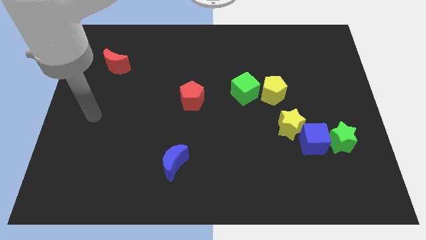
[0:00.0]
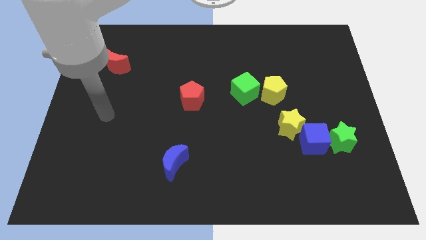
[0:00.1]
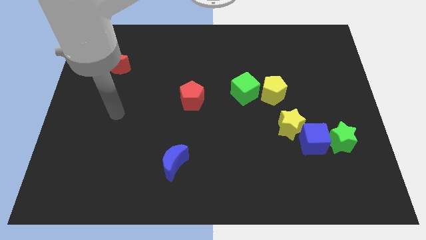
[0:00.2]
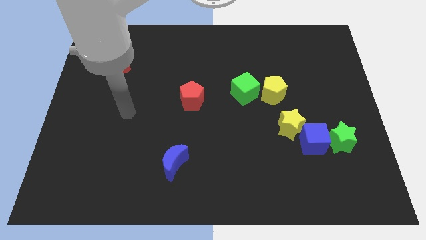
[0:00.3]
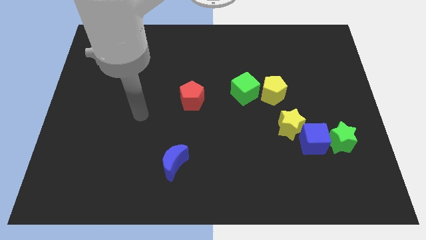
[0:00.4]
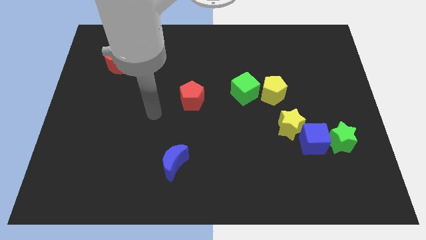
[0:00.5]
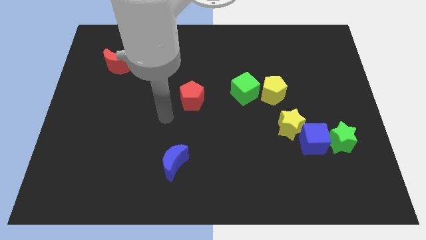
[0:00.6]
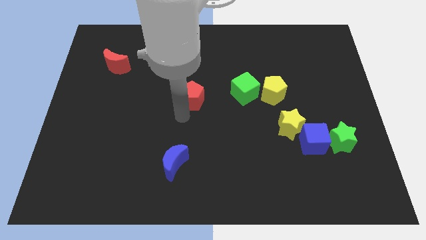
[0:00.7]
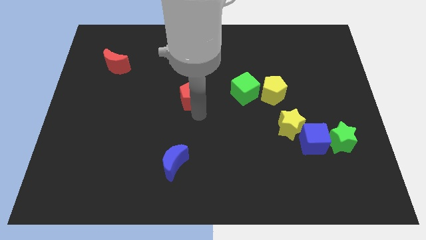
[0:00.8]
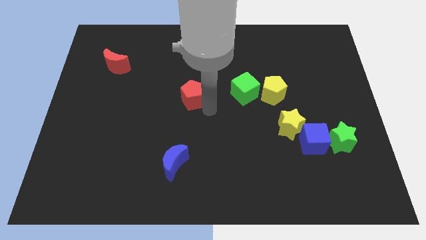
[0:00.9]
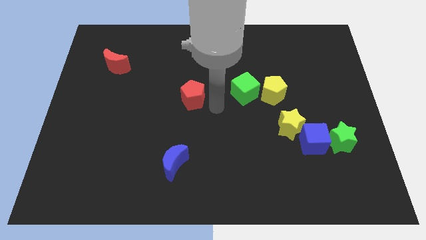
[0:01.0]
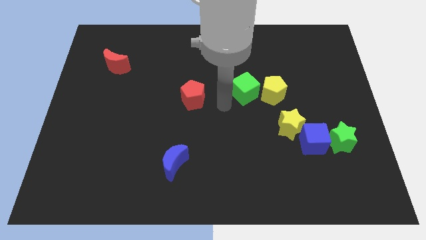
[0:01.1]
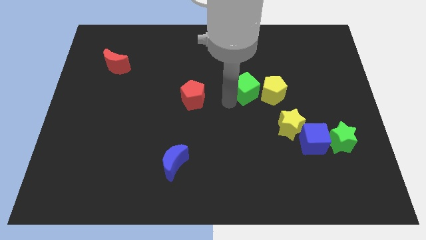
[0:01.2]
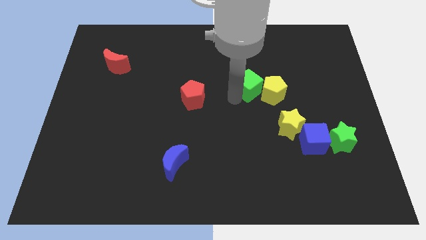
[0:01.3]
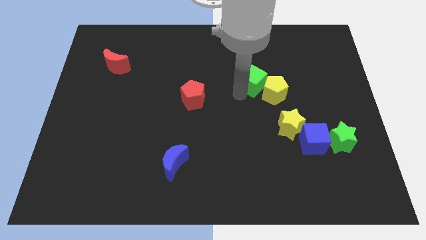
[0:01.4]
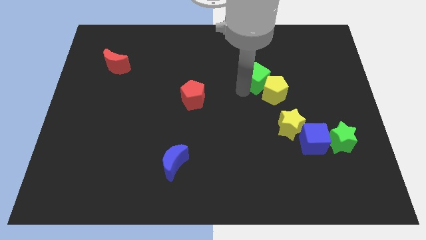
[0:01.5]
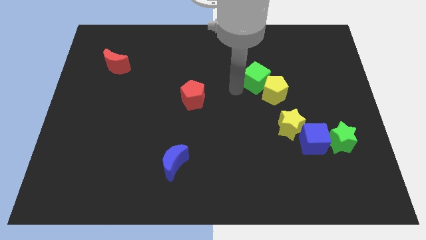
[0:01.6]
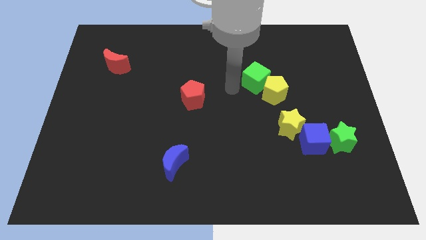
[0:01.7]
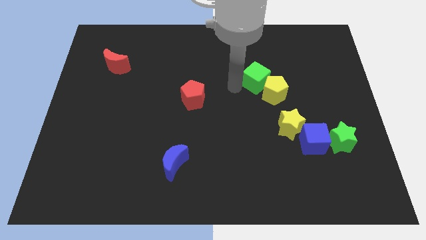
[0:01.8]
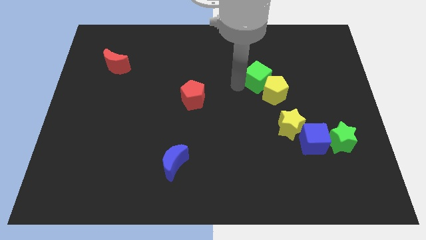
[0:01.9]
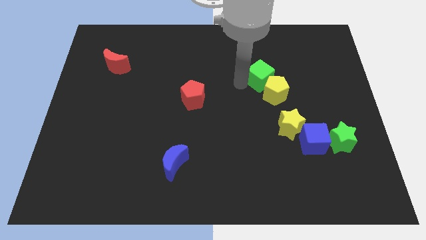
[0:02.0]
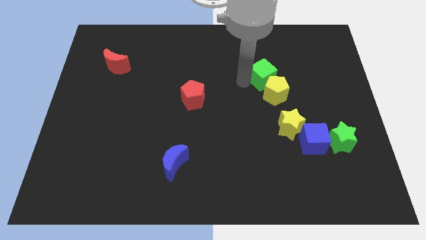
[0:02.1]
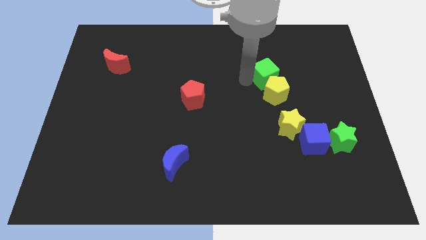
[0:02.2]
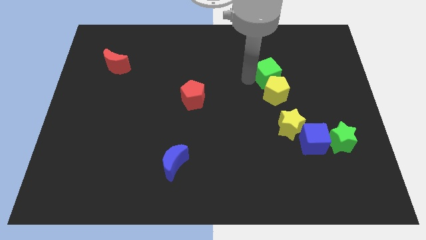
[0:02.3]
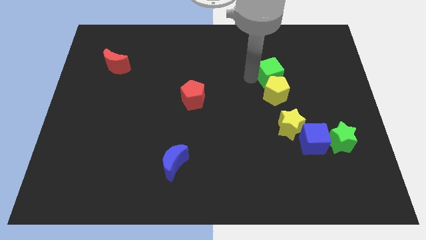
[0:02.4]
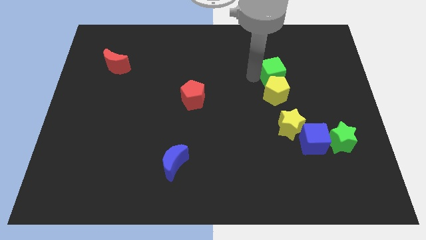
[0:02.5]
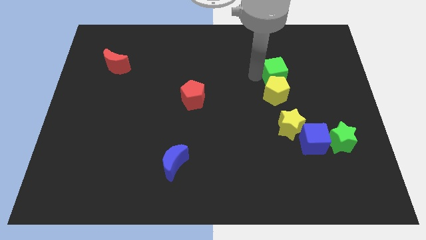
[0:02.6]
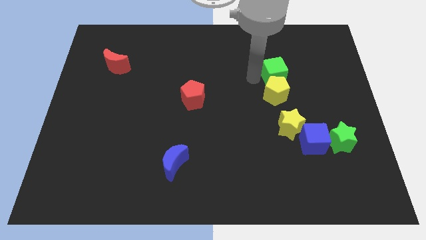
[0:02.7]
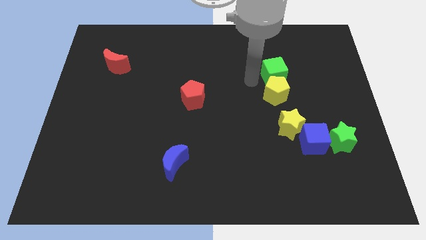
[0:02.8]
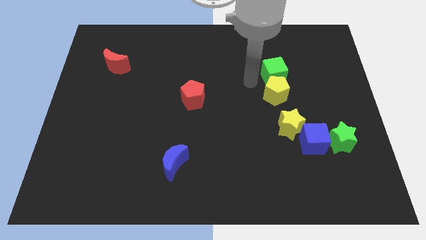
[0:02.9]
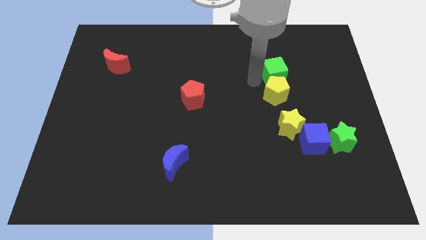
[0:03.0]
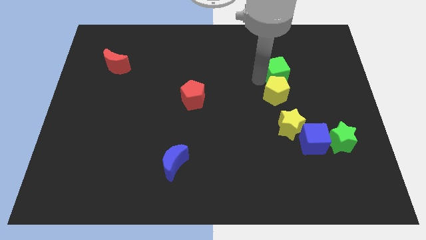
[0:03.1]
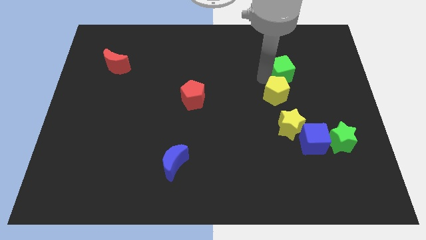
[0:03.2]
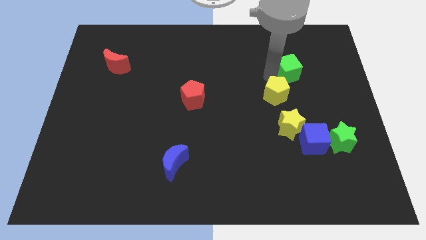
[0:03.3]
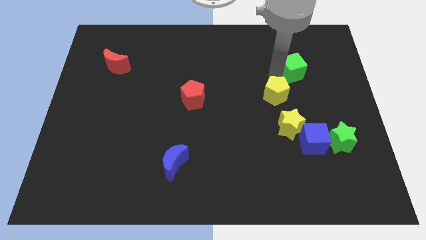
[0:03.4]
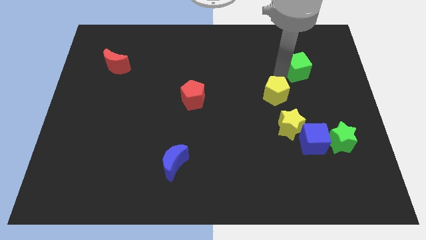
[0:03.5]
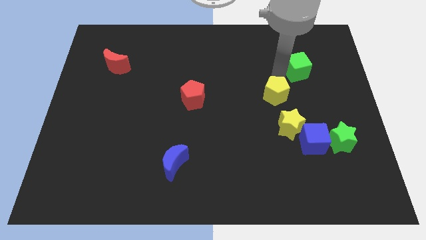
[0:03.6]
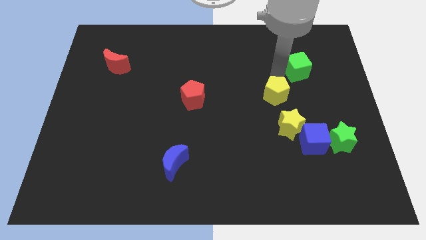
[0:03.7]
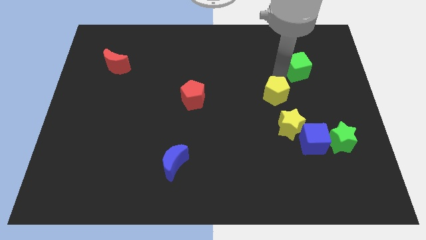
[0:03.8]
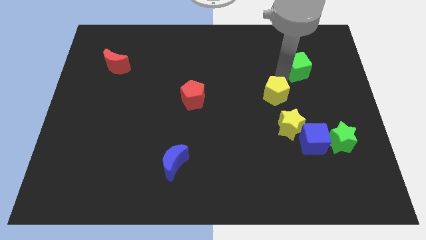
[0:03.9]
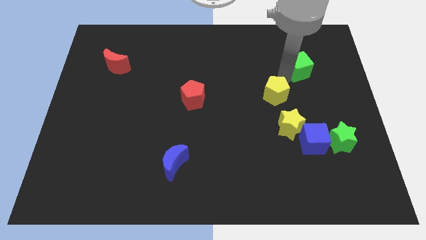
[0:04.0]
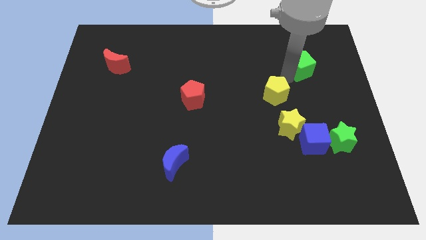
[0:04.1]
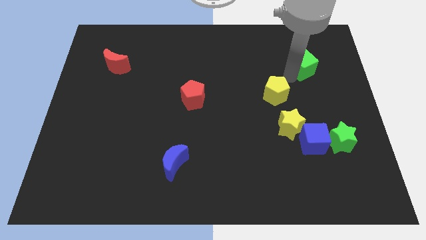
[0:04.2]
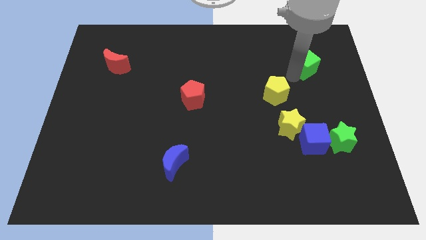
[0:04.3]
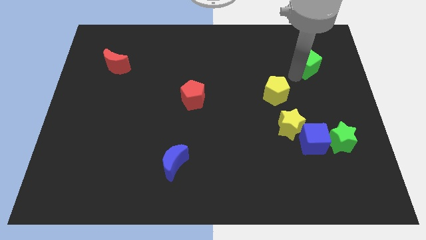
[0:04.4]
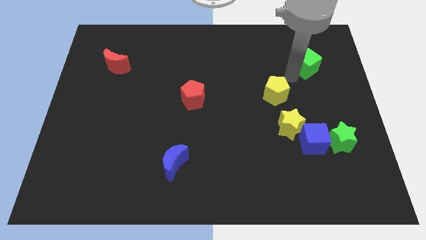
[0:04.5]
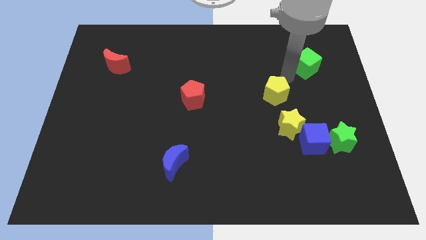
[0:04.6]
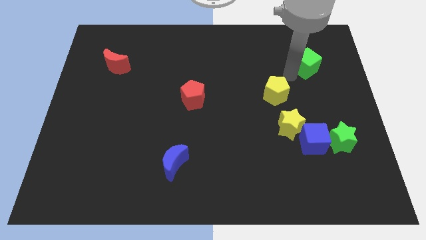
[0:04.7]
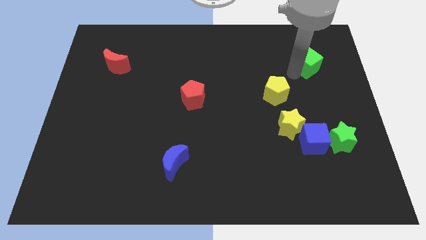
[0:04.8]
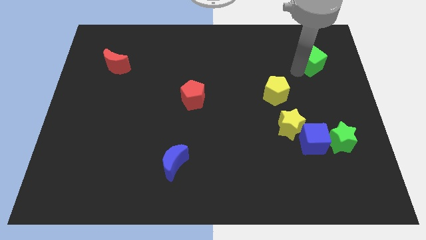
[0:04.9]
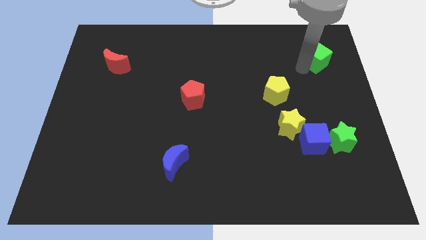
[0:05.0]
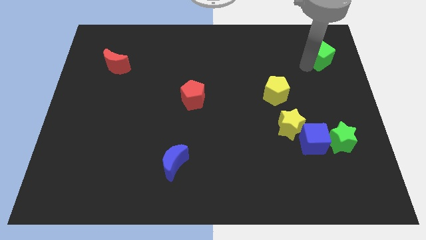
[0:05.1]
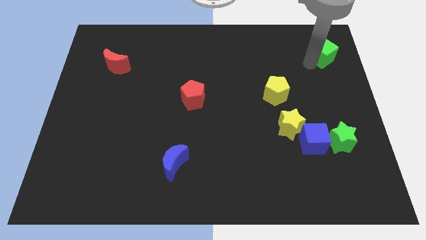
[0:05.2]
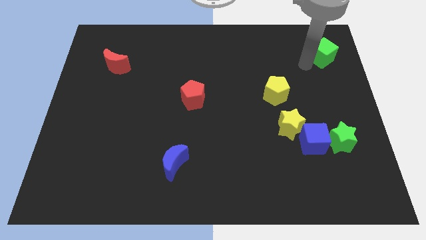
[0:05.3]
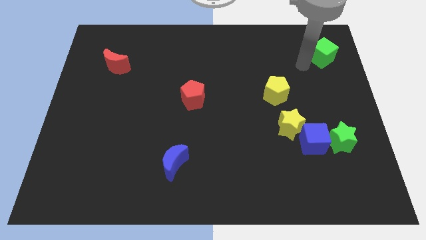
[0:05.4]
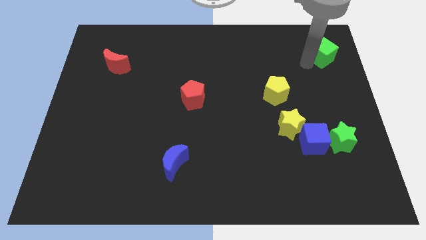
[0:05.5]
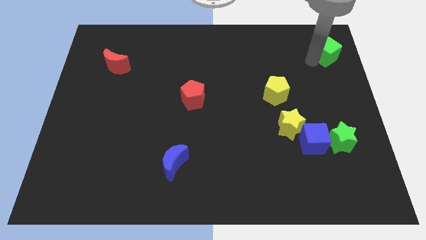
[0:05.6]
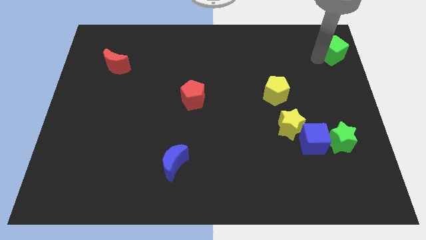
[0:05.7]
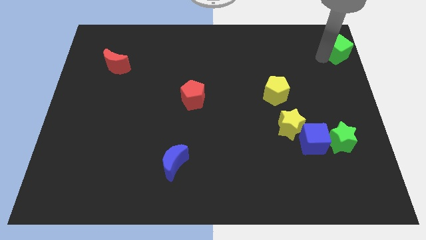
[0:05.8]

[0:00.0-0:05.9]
move the green cube to the top right corner
